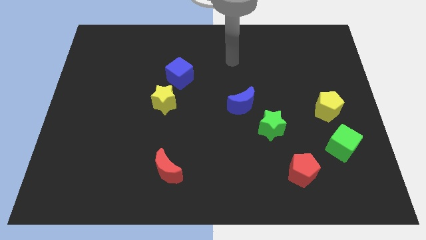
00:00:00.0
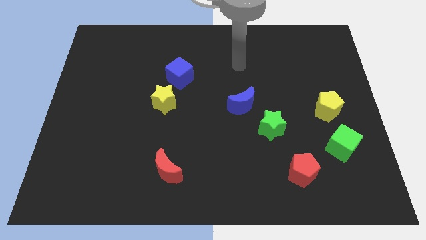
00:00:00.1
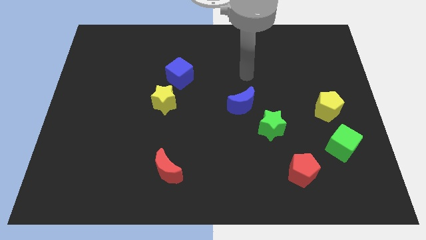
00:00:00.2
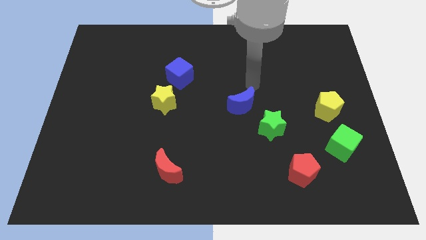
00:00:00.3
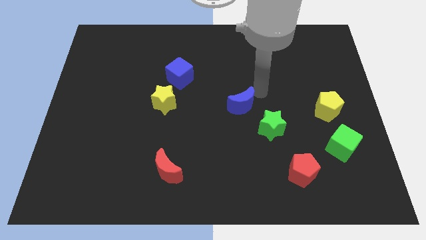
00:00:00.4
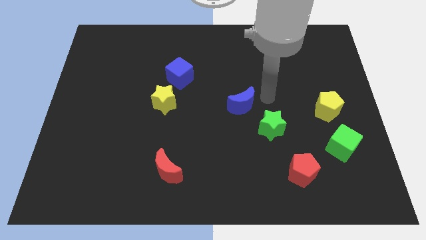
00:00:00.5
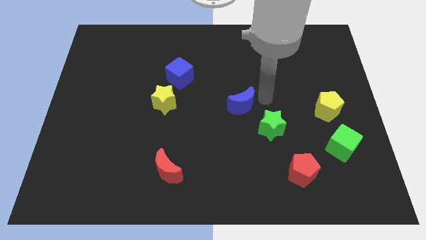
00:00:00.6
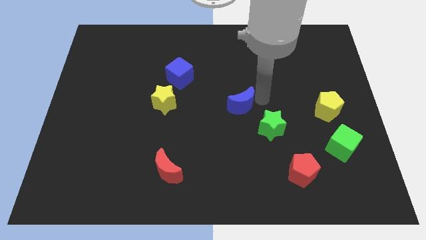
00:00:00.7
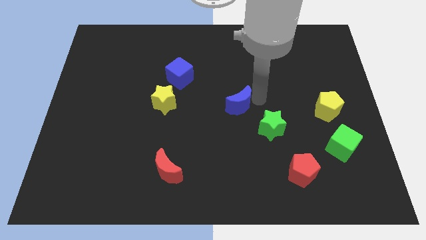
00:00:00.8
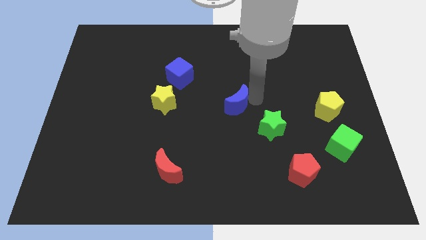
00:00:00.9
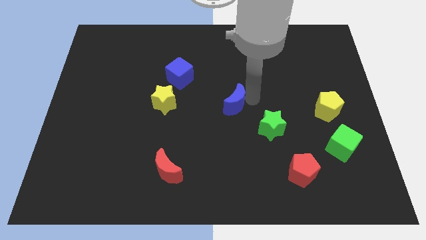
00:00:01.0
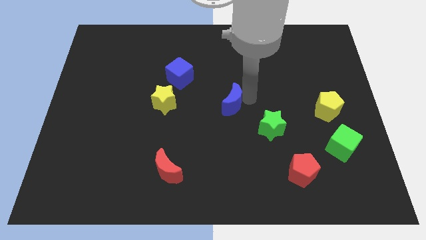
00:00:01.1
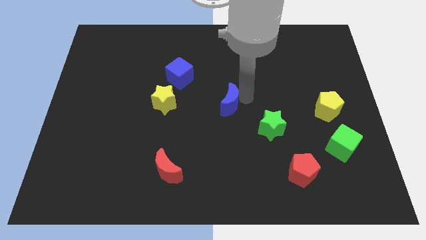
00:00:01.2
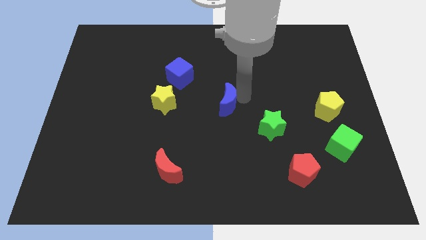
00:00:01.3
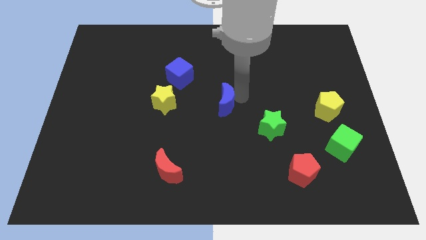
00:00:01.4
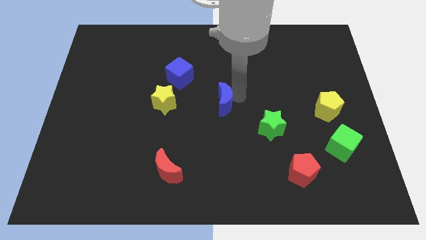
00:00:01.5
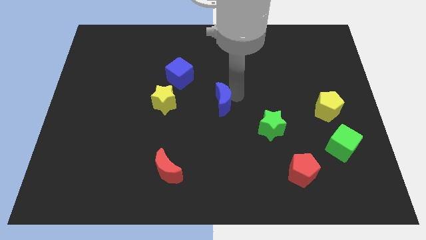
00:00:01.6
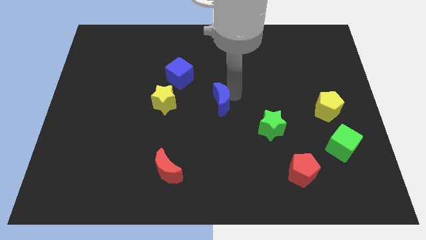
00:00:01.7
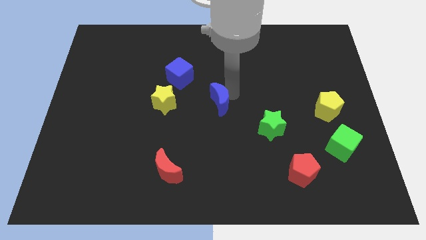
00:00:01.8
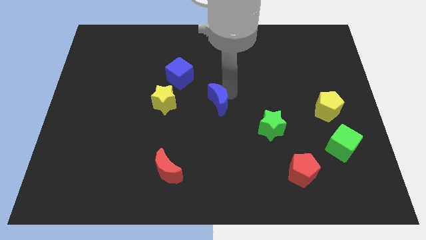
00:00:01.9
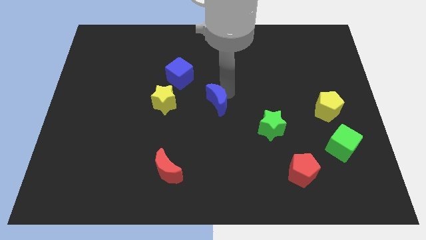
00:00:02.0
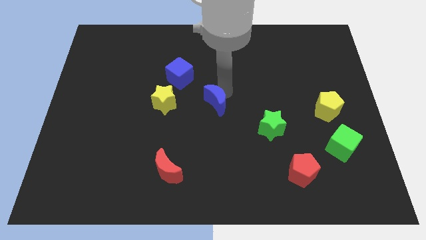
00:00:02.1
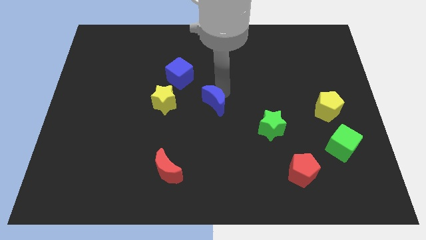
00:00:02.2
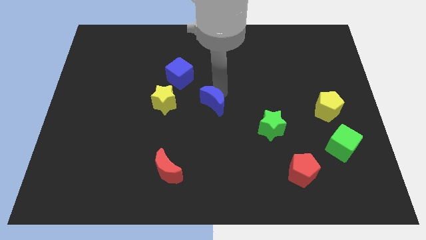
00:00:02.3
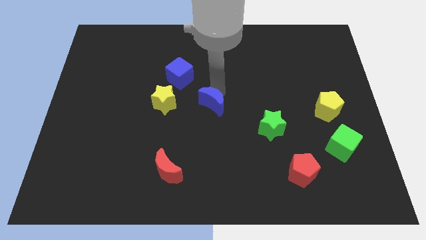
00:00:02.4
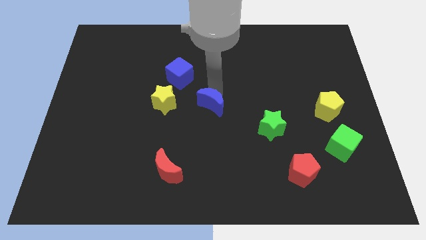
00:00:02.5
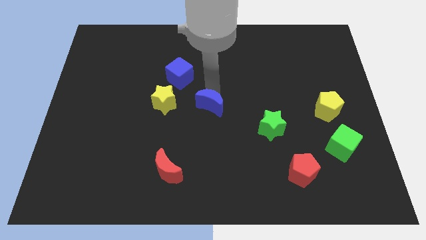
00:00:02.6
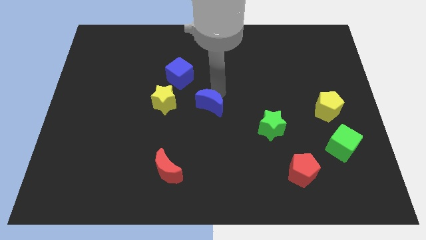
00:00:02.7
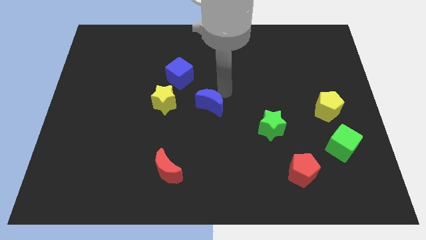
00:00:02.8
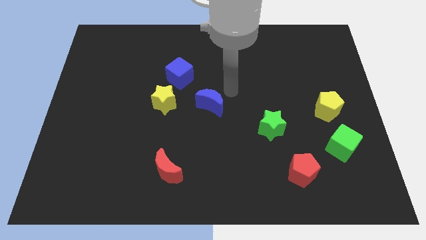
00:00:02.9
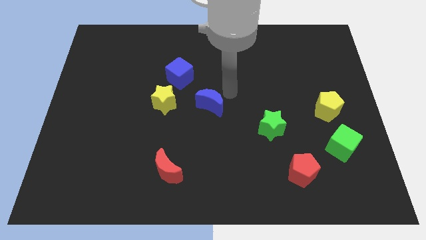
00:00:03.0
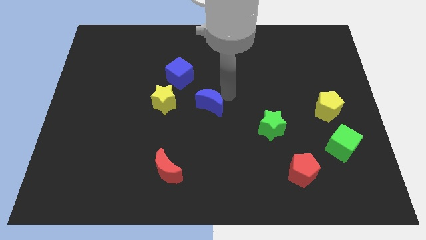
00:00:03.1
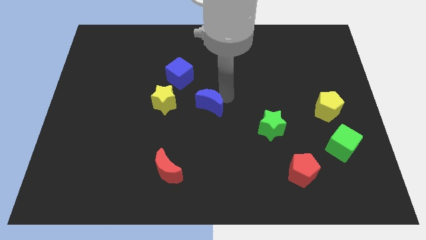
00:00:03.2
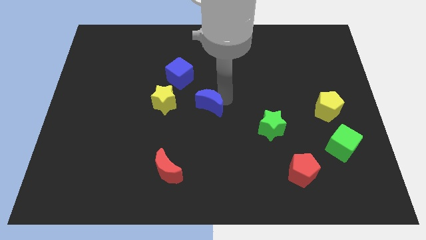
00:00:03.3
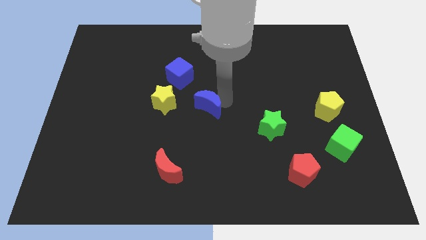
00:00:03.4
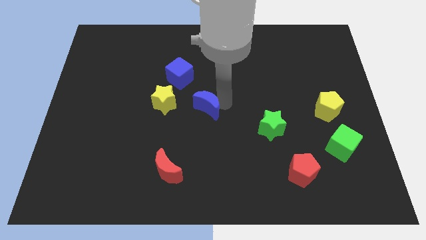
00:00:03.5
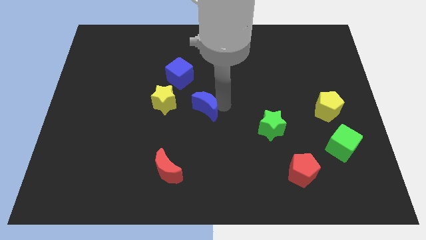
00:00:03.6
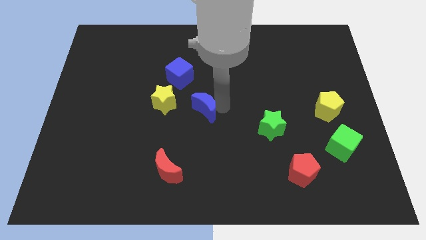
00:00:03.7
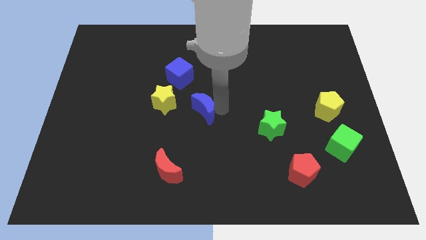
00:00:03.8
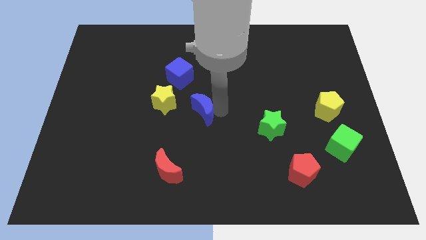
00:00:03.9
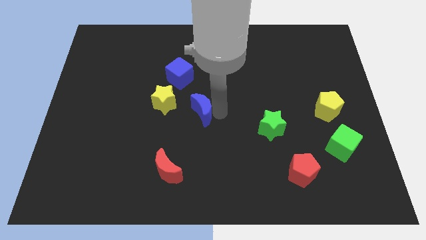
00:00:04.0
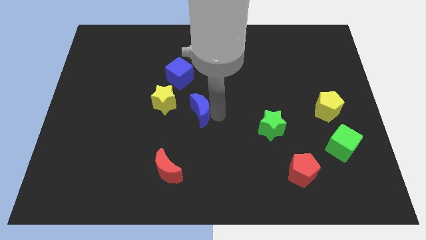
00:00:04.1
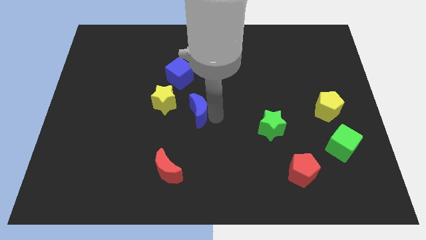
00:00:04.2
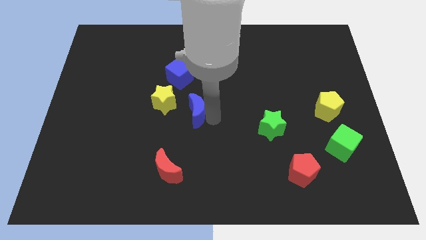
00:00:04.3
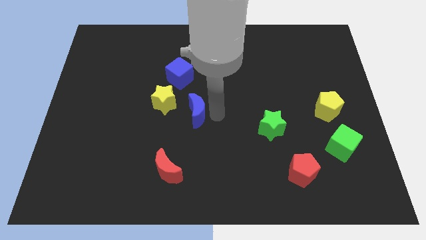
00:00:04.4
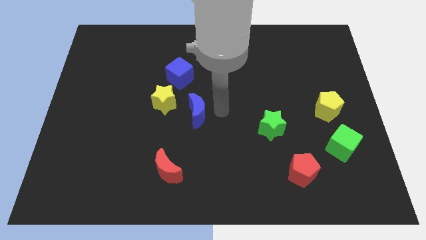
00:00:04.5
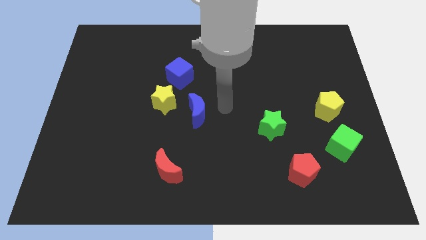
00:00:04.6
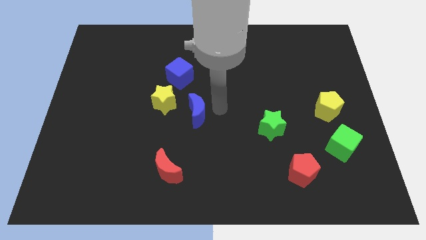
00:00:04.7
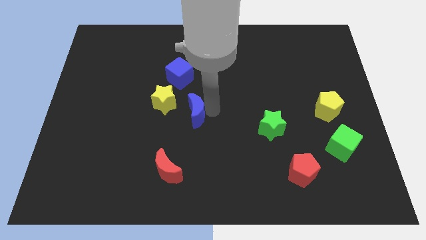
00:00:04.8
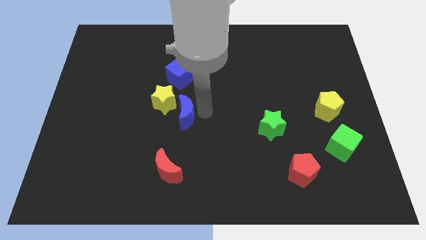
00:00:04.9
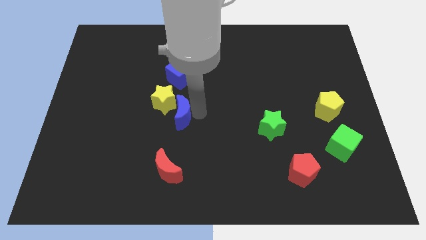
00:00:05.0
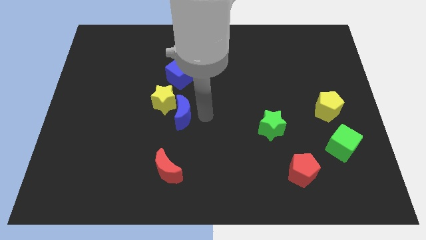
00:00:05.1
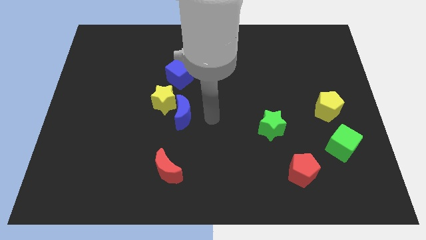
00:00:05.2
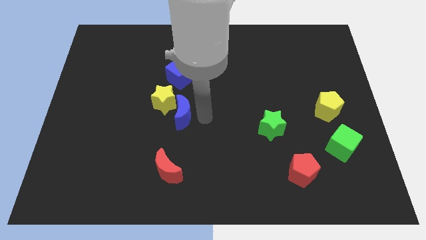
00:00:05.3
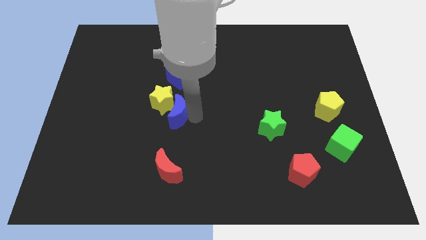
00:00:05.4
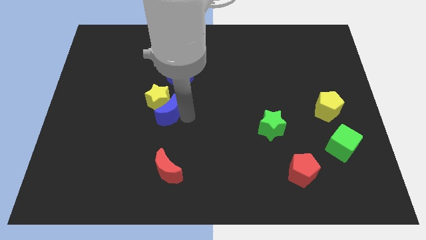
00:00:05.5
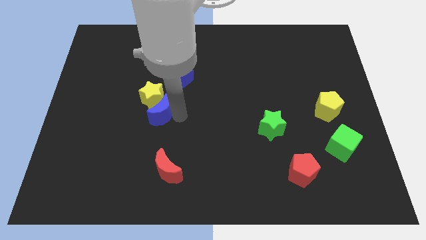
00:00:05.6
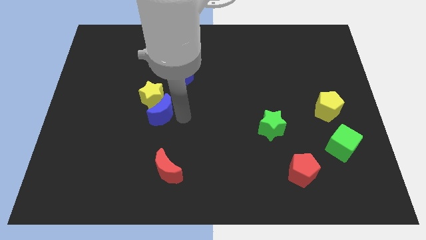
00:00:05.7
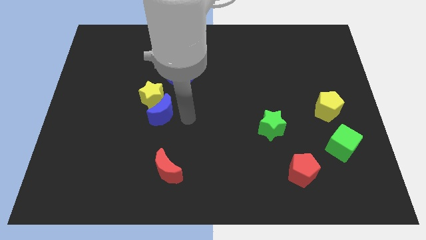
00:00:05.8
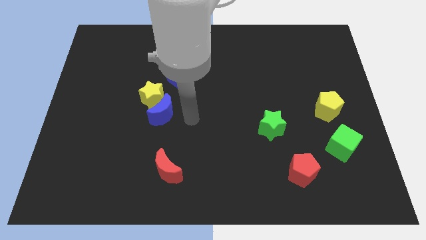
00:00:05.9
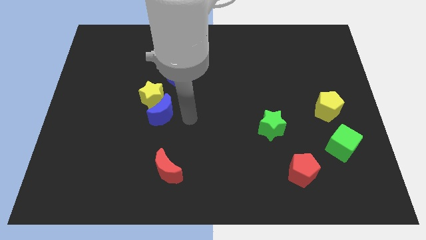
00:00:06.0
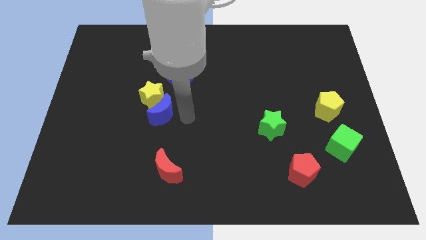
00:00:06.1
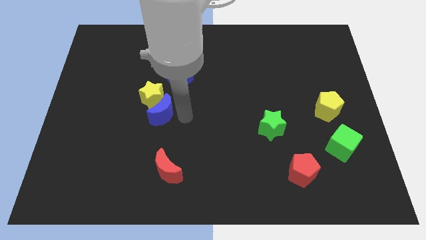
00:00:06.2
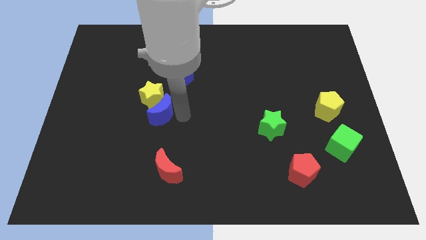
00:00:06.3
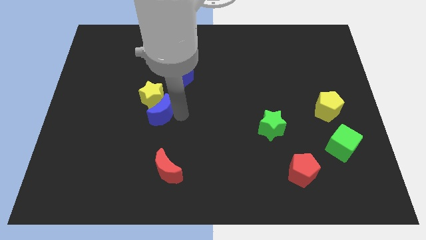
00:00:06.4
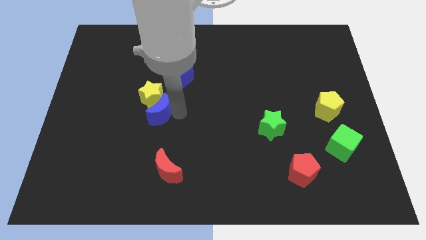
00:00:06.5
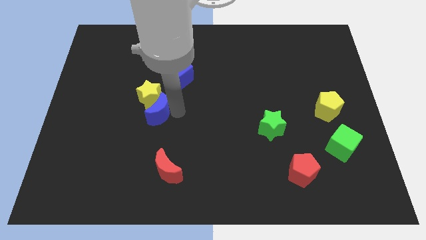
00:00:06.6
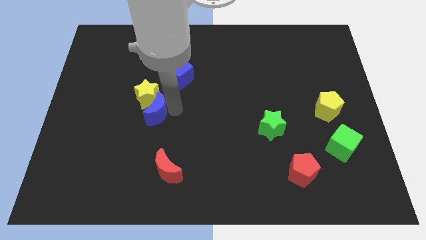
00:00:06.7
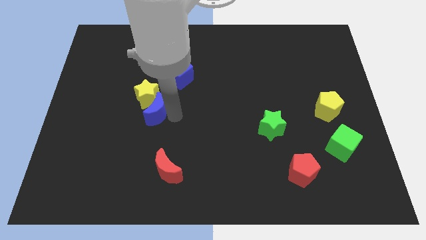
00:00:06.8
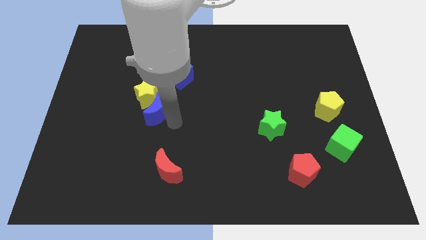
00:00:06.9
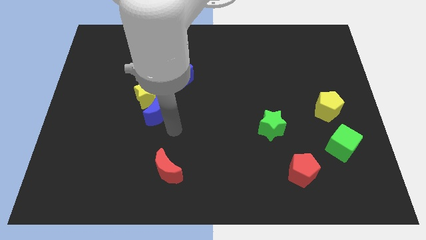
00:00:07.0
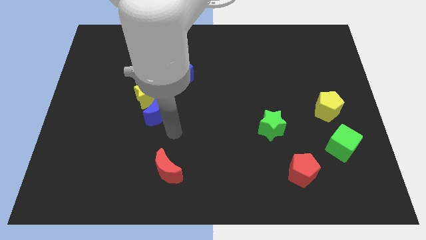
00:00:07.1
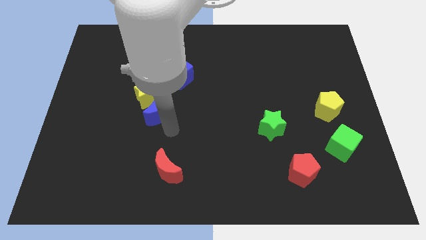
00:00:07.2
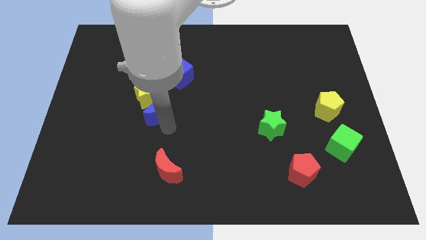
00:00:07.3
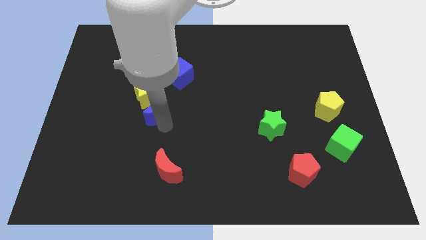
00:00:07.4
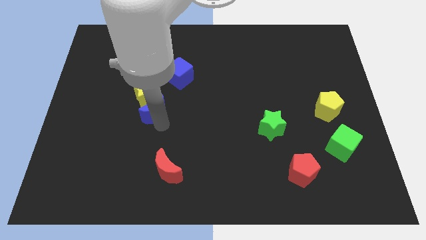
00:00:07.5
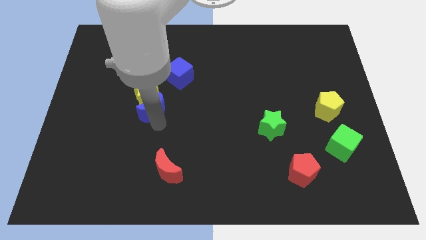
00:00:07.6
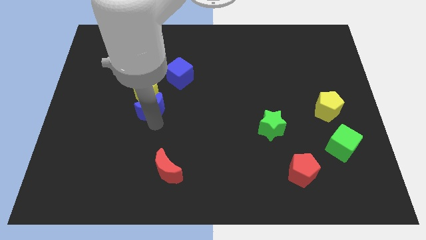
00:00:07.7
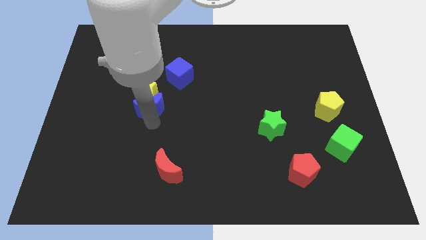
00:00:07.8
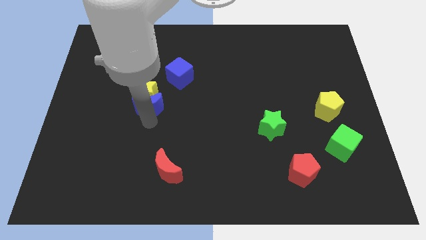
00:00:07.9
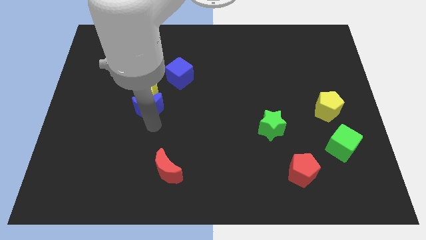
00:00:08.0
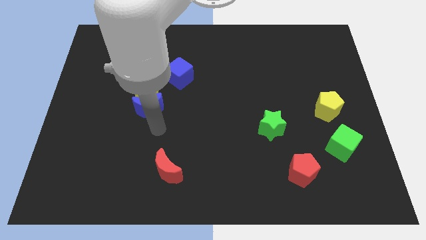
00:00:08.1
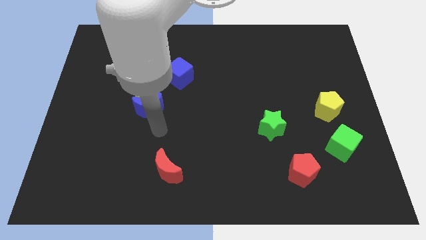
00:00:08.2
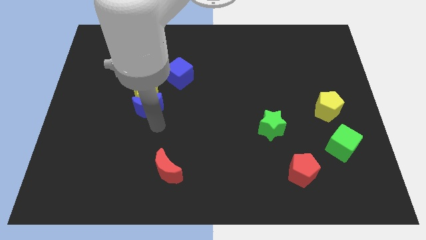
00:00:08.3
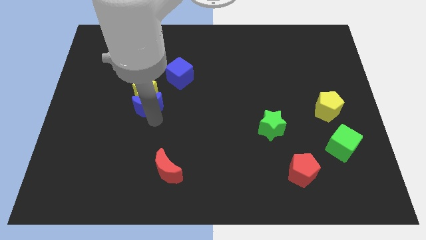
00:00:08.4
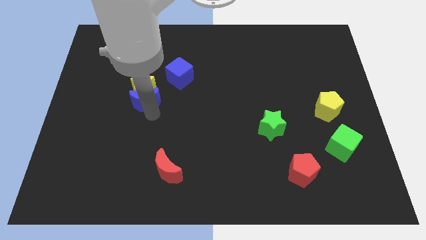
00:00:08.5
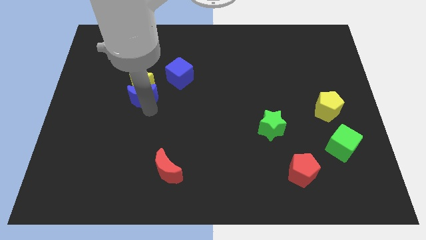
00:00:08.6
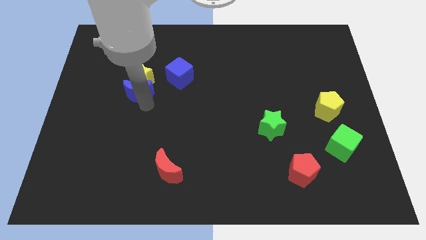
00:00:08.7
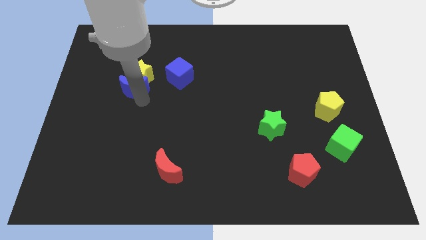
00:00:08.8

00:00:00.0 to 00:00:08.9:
put the blue moon left of the blue cube

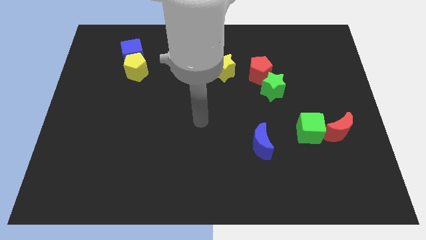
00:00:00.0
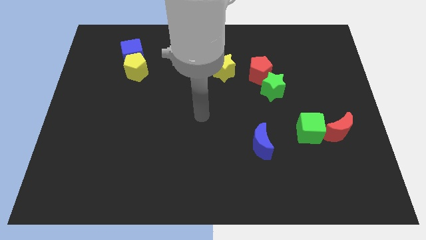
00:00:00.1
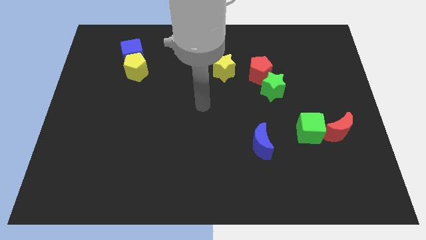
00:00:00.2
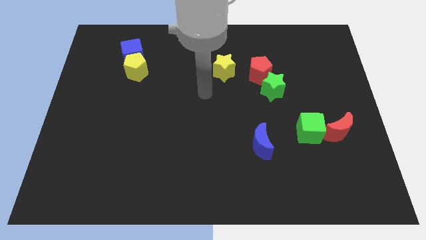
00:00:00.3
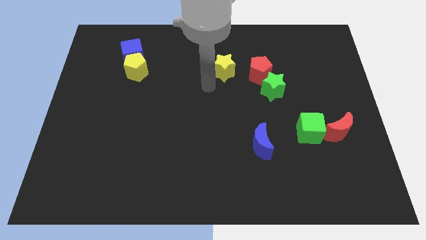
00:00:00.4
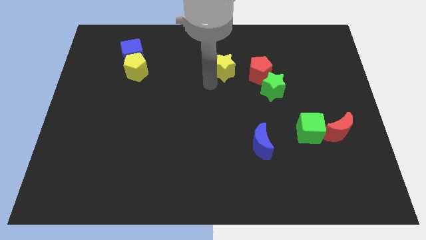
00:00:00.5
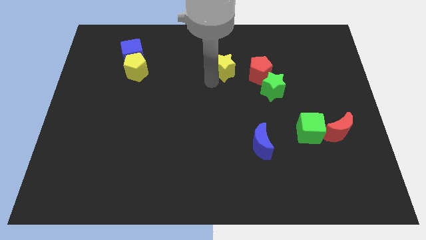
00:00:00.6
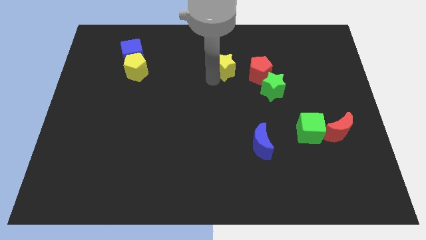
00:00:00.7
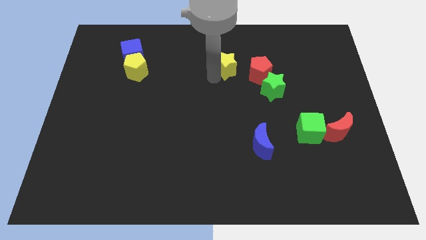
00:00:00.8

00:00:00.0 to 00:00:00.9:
slide the yellow star to the top left of the red pentagon
